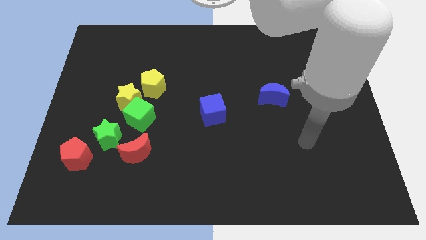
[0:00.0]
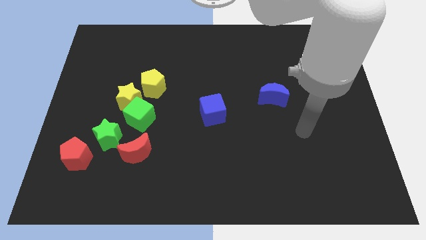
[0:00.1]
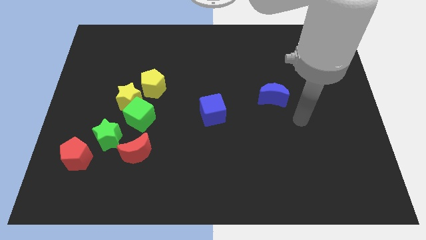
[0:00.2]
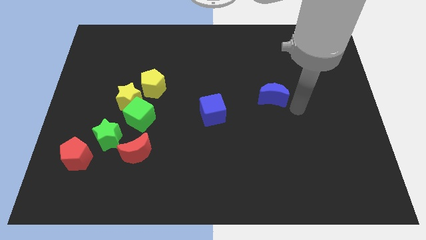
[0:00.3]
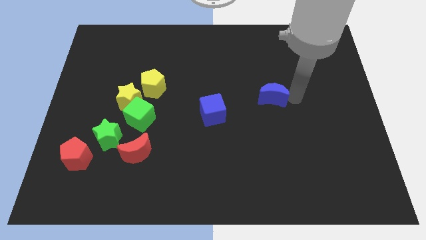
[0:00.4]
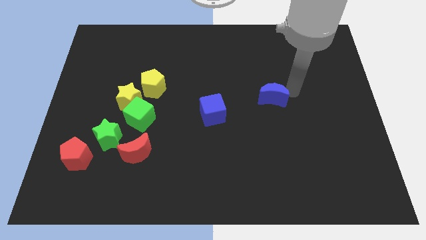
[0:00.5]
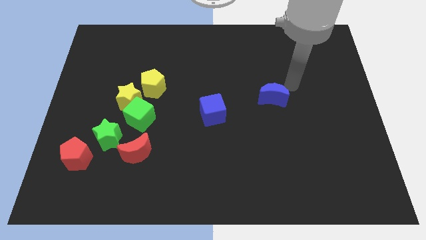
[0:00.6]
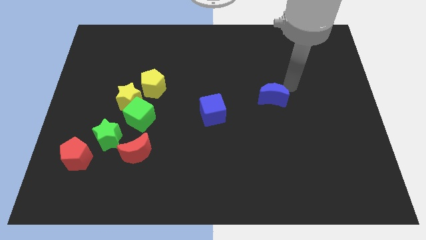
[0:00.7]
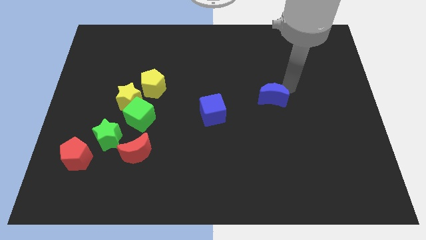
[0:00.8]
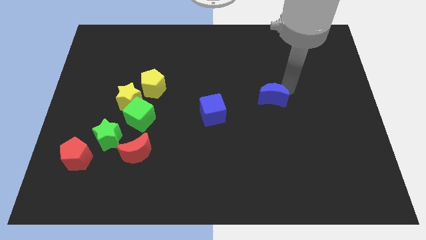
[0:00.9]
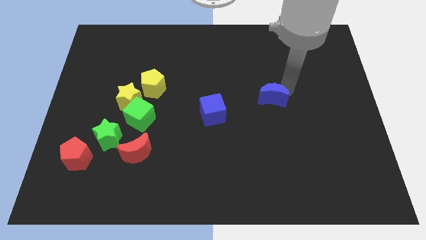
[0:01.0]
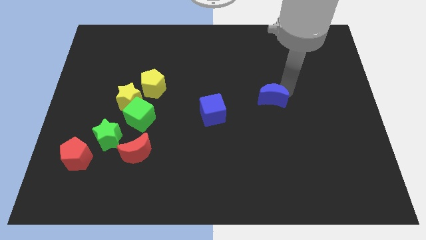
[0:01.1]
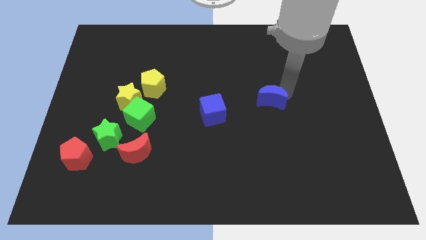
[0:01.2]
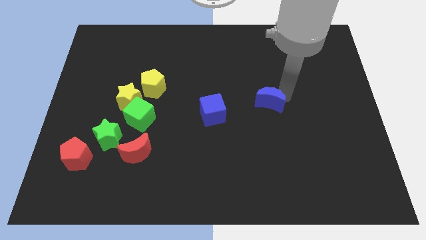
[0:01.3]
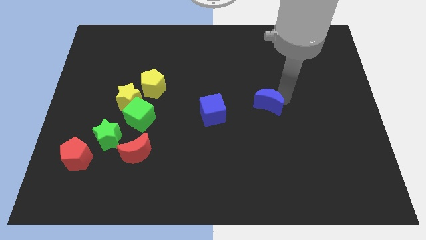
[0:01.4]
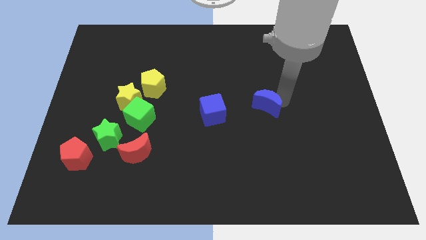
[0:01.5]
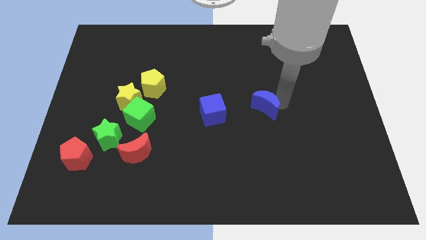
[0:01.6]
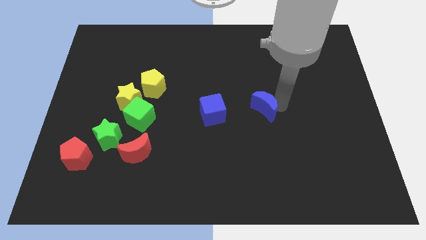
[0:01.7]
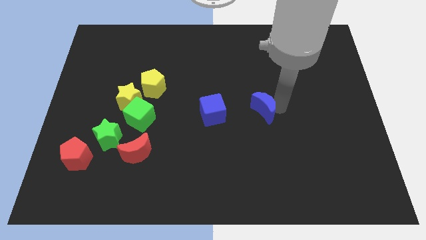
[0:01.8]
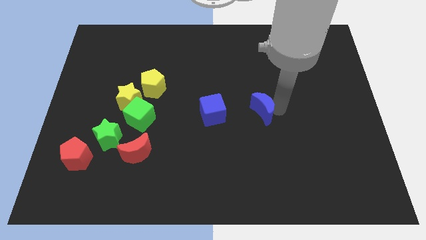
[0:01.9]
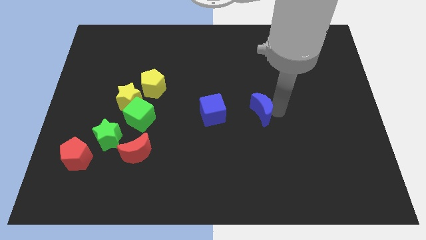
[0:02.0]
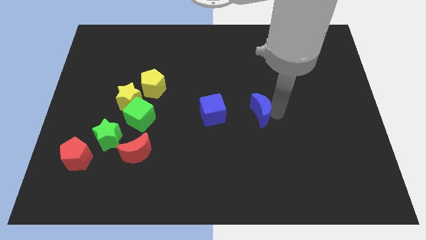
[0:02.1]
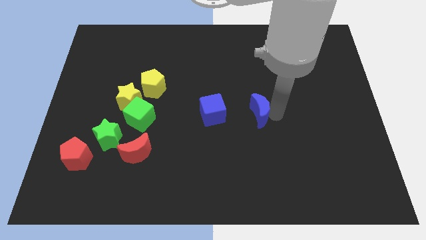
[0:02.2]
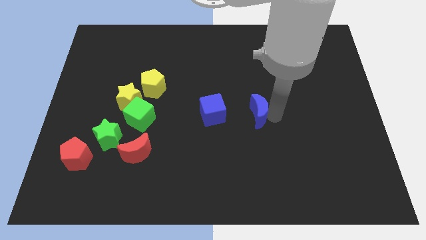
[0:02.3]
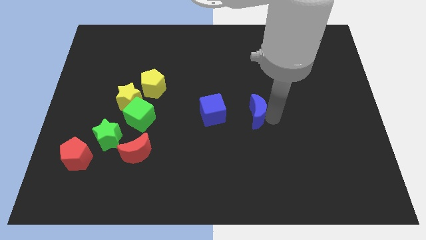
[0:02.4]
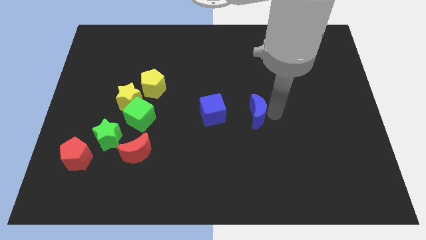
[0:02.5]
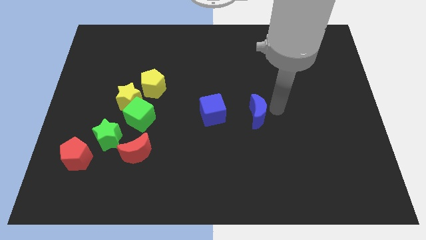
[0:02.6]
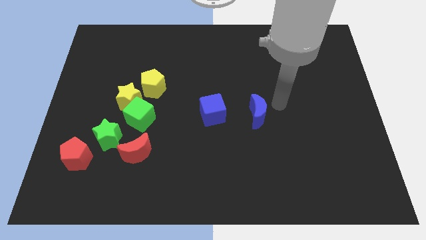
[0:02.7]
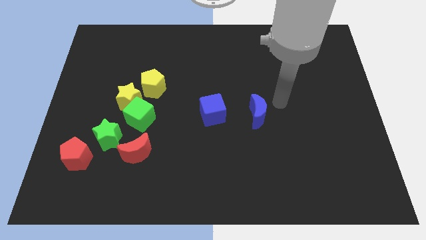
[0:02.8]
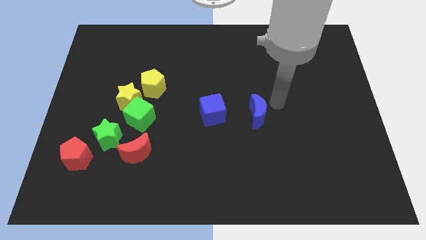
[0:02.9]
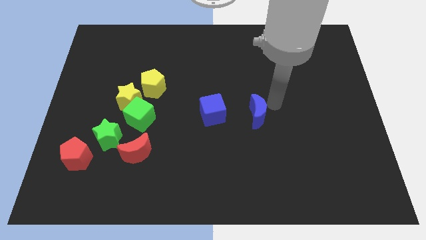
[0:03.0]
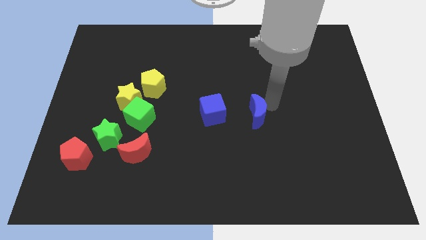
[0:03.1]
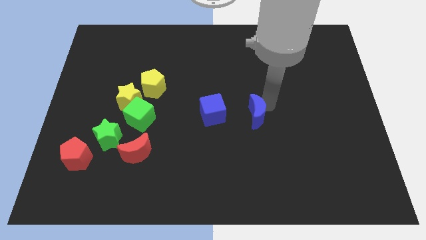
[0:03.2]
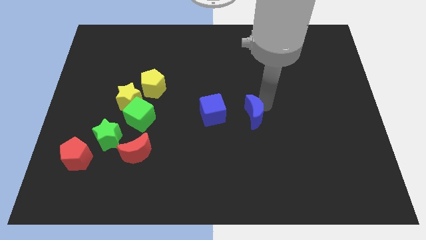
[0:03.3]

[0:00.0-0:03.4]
slightly push the blue moon diagonally downwards and to the left

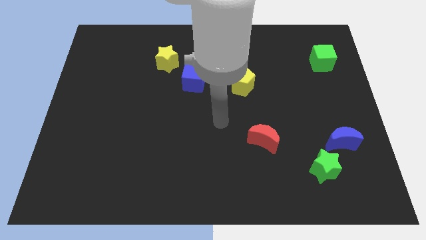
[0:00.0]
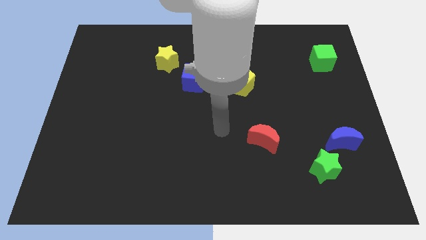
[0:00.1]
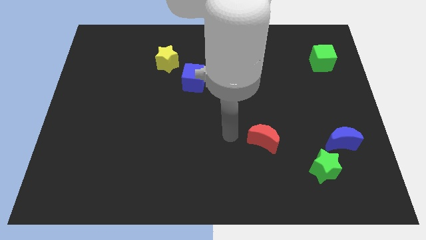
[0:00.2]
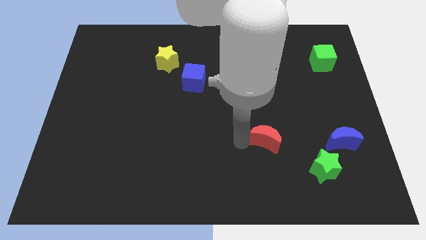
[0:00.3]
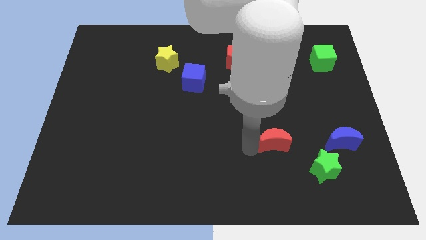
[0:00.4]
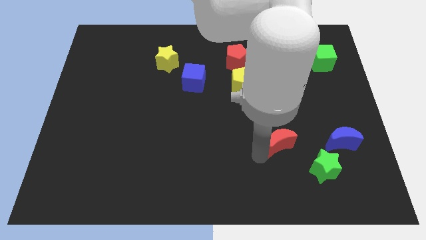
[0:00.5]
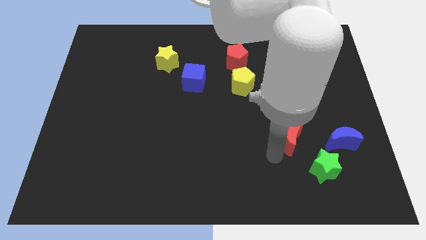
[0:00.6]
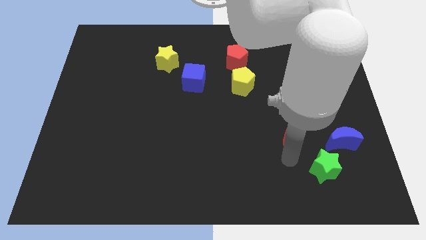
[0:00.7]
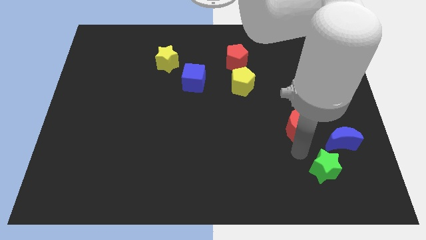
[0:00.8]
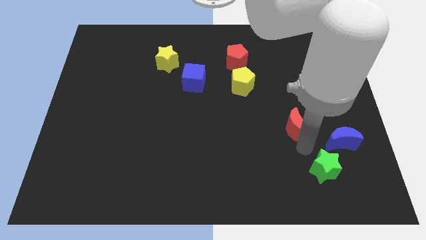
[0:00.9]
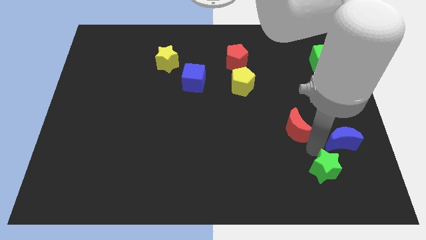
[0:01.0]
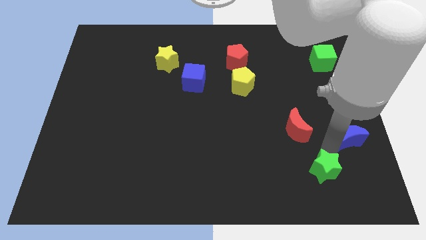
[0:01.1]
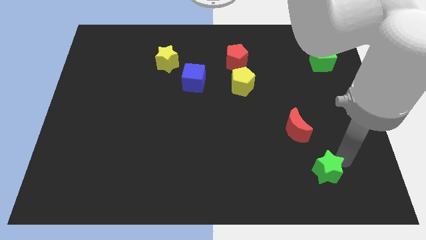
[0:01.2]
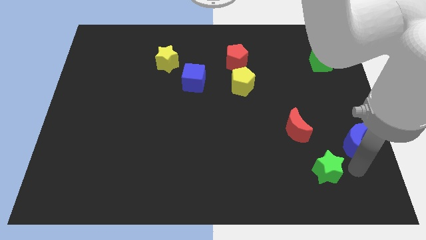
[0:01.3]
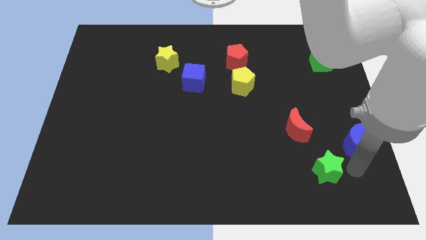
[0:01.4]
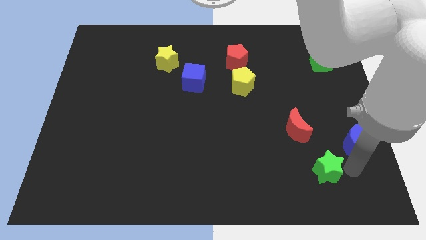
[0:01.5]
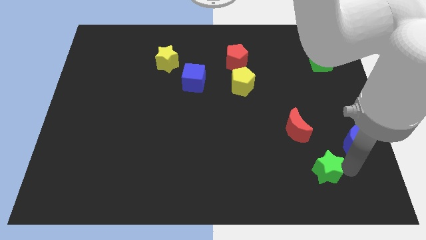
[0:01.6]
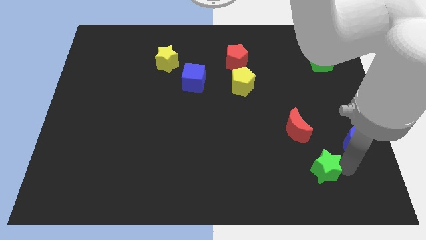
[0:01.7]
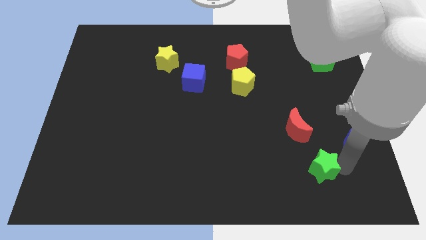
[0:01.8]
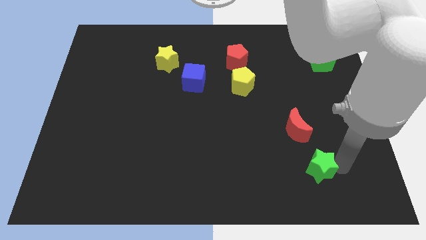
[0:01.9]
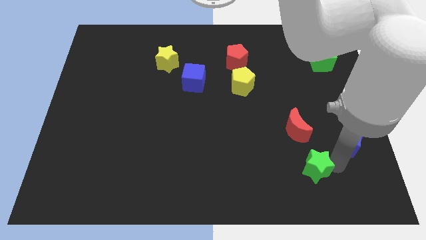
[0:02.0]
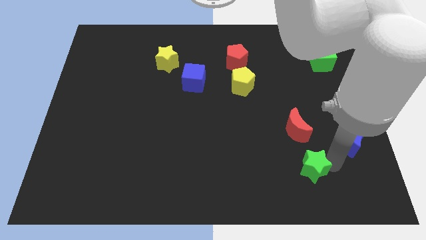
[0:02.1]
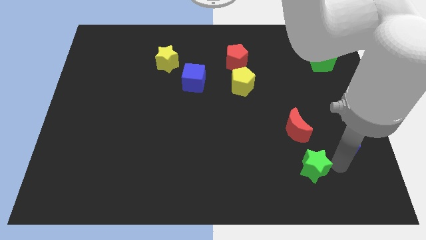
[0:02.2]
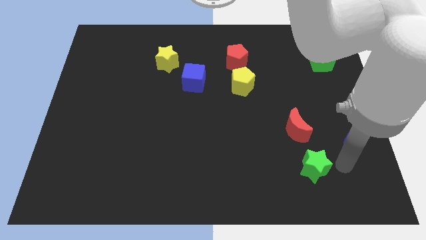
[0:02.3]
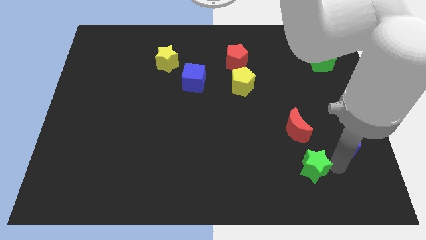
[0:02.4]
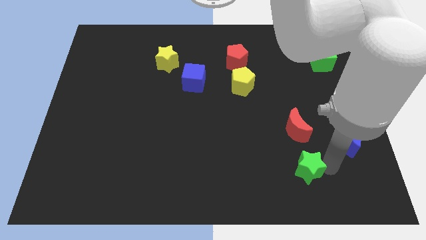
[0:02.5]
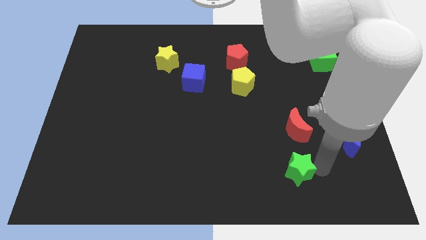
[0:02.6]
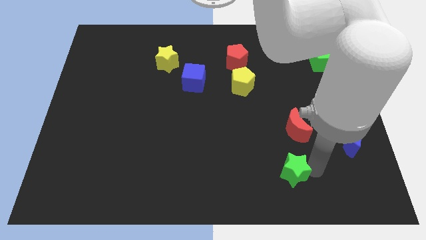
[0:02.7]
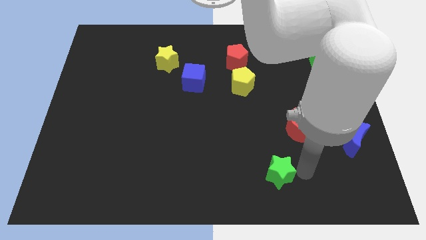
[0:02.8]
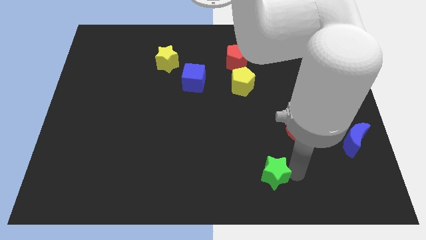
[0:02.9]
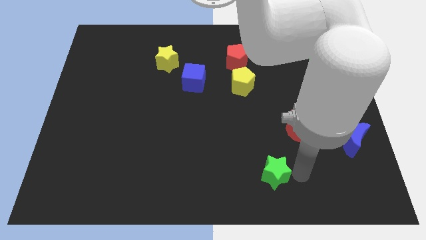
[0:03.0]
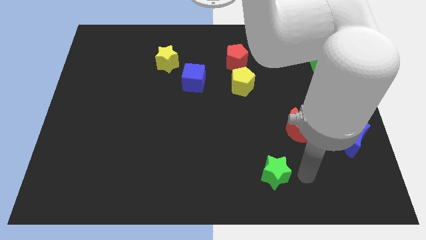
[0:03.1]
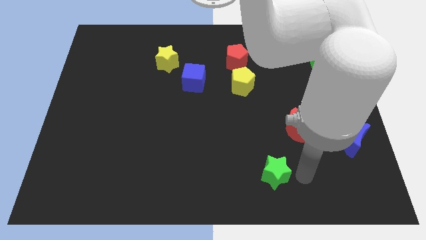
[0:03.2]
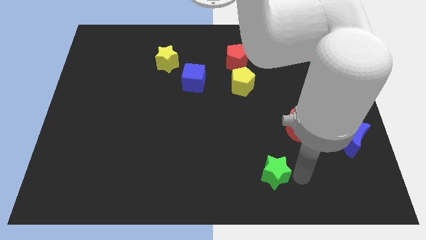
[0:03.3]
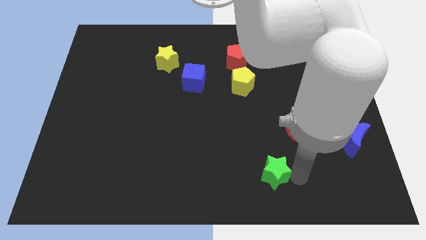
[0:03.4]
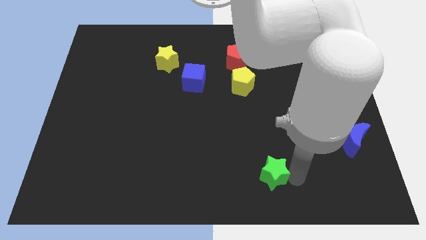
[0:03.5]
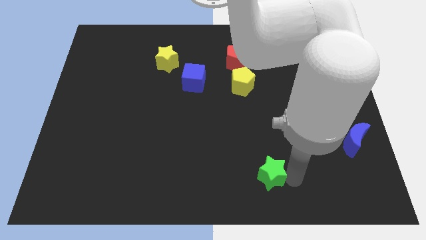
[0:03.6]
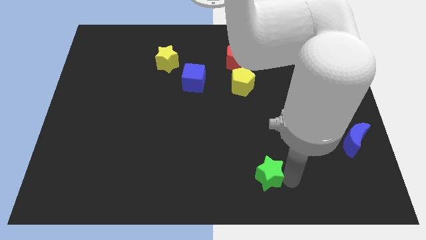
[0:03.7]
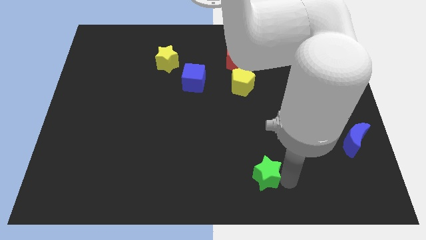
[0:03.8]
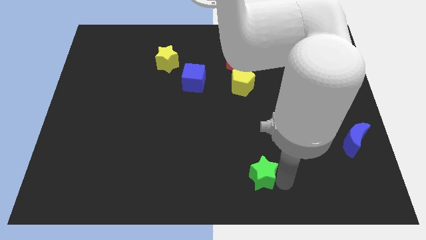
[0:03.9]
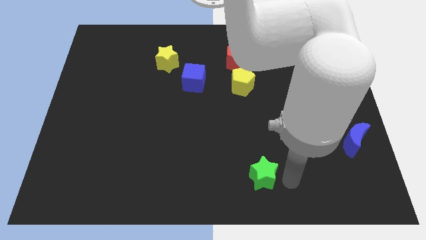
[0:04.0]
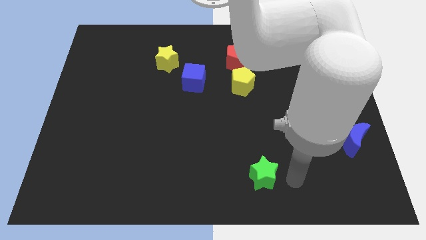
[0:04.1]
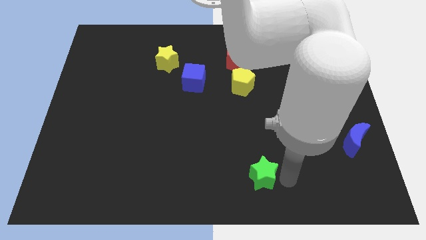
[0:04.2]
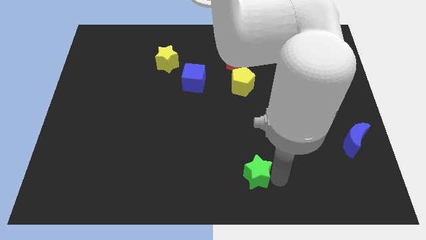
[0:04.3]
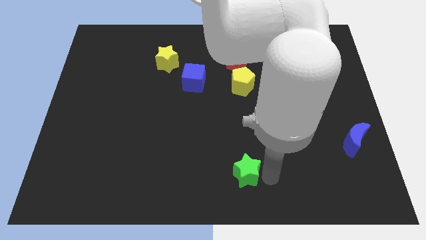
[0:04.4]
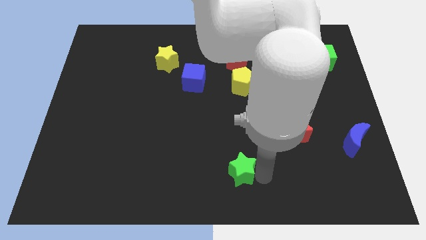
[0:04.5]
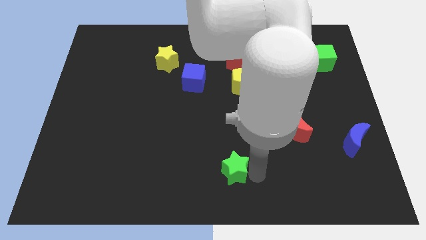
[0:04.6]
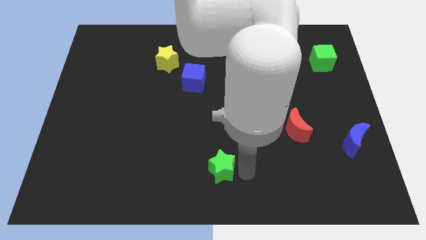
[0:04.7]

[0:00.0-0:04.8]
move the green star left

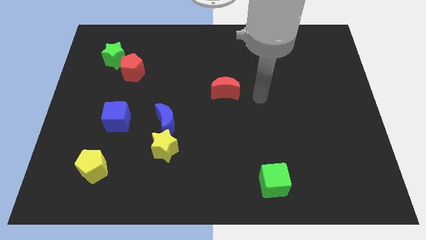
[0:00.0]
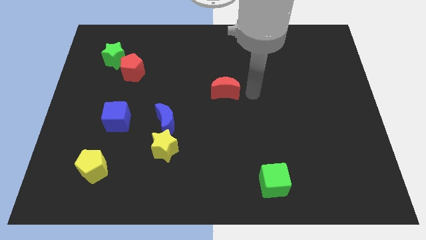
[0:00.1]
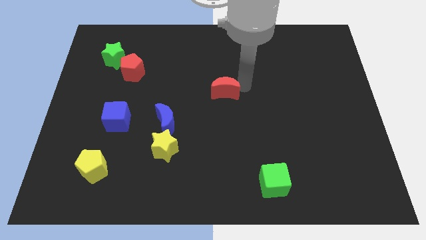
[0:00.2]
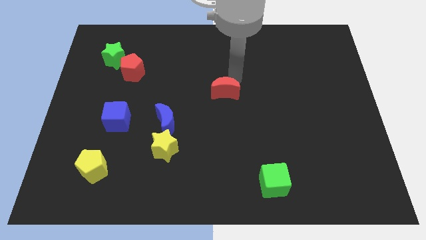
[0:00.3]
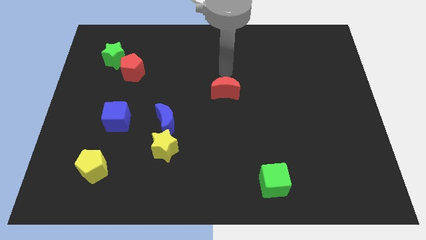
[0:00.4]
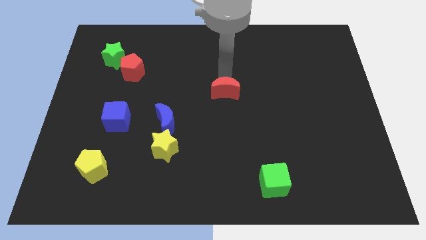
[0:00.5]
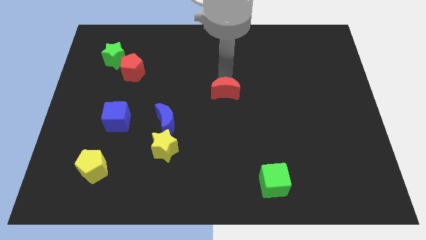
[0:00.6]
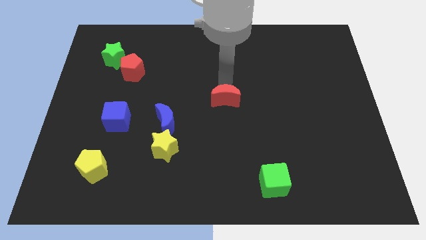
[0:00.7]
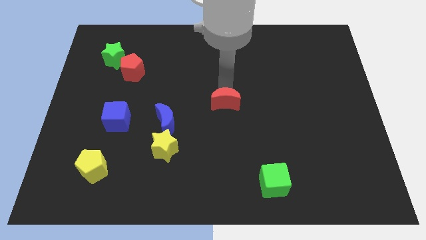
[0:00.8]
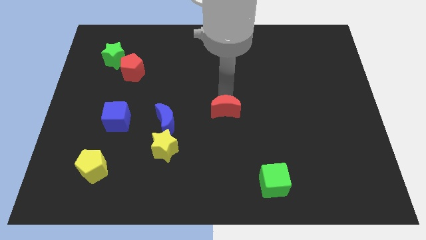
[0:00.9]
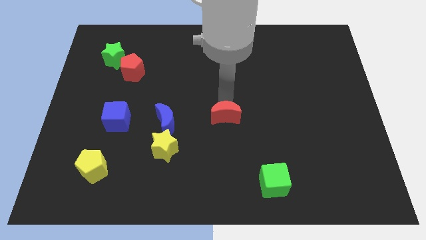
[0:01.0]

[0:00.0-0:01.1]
slightly push the red moon down
